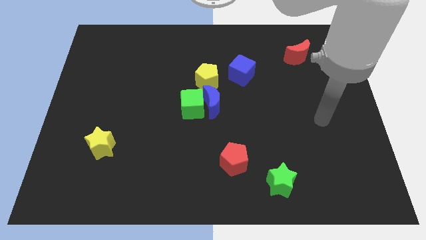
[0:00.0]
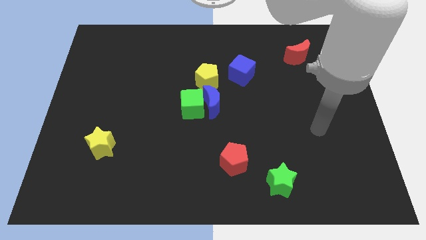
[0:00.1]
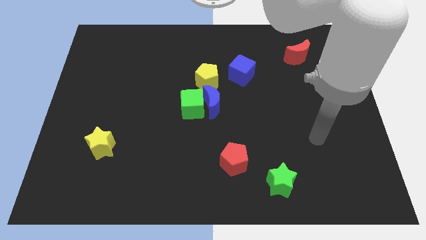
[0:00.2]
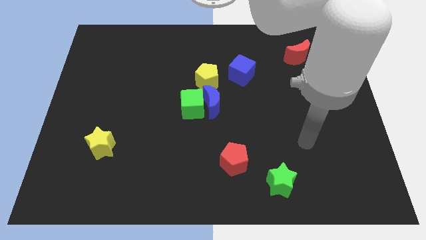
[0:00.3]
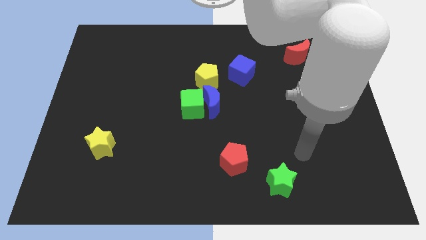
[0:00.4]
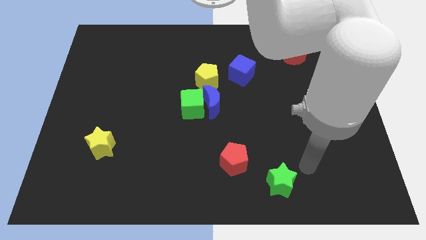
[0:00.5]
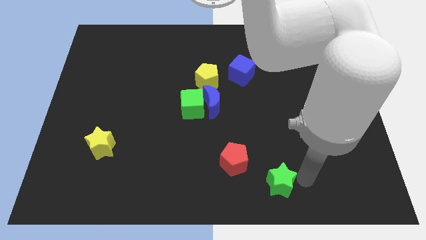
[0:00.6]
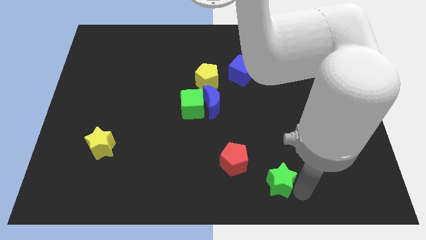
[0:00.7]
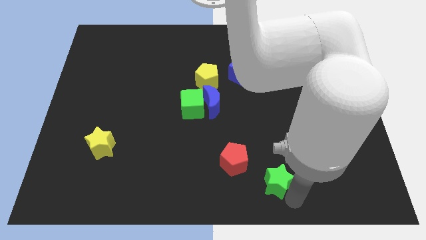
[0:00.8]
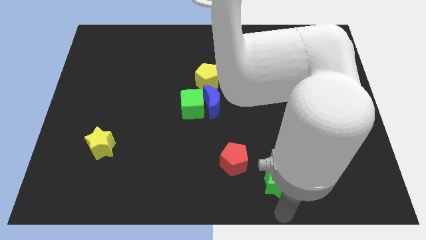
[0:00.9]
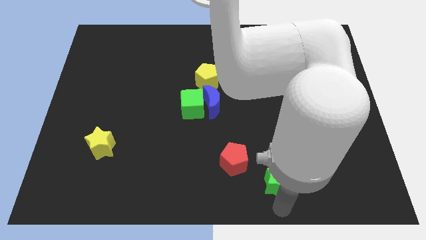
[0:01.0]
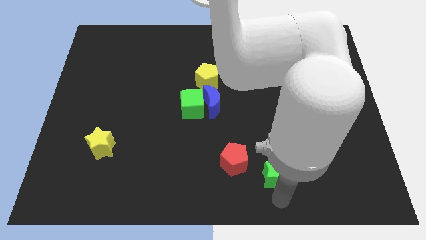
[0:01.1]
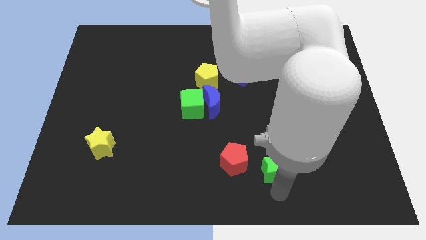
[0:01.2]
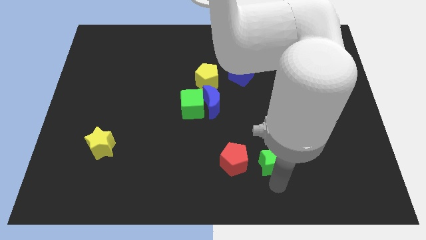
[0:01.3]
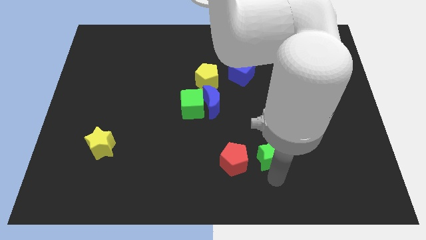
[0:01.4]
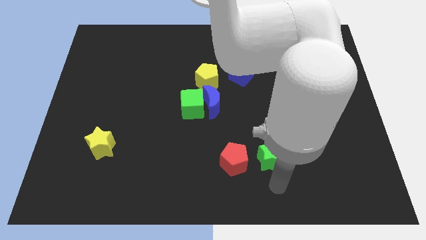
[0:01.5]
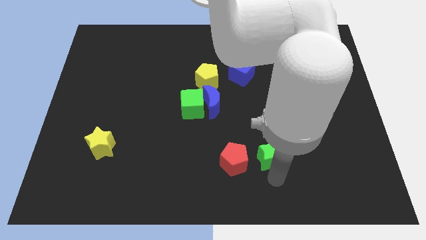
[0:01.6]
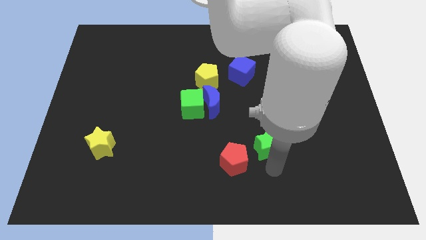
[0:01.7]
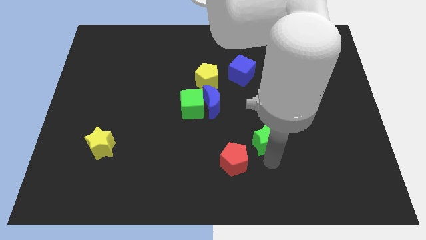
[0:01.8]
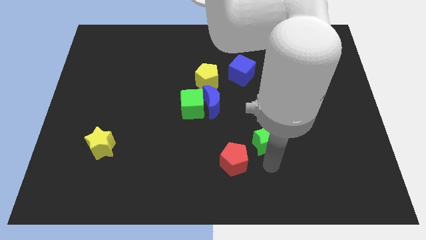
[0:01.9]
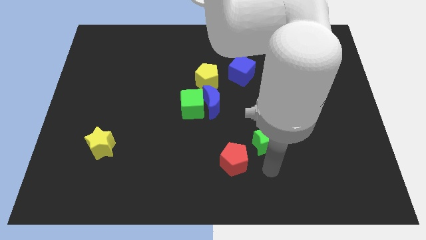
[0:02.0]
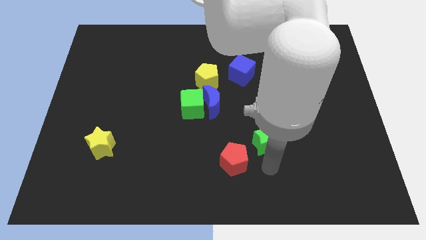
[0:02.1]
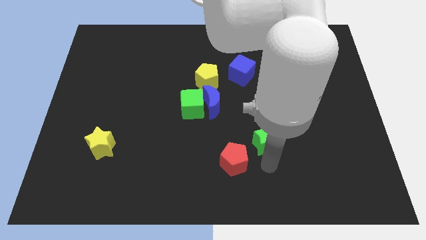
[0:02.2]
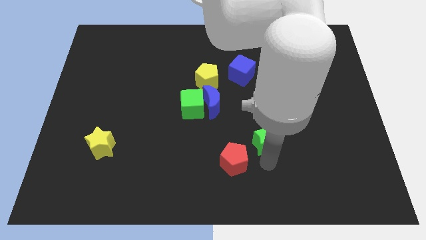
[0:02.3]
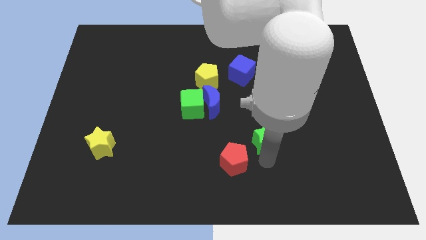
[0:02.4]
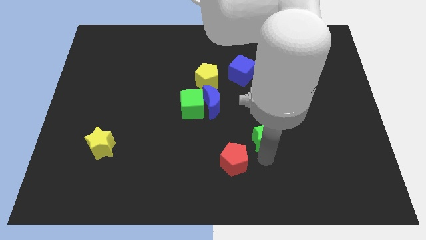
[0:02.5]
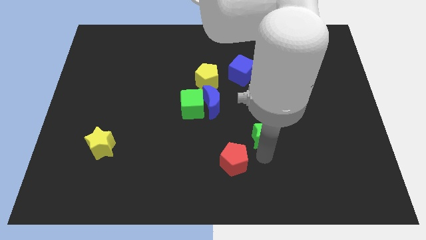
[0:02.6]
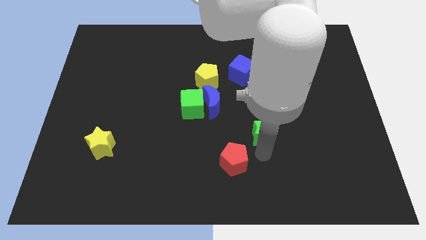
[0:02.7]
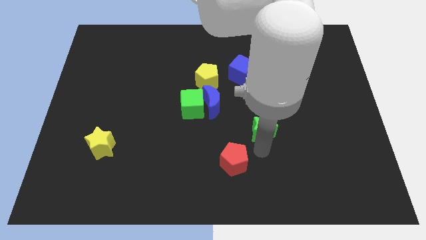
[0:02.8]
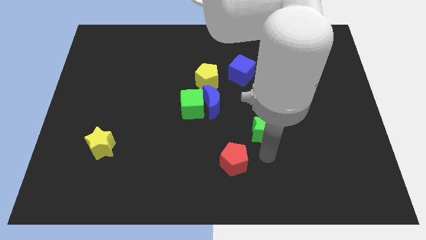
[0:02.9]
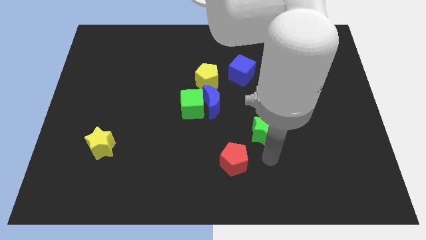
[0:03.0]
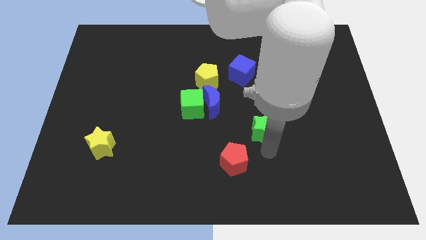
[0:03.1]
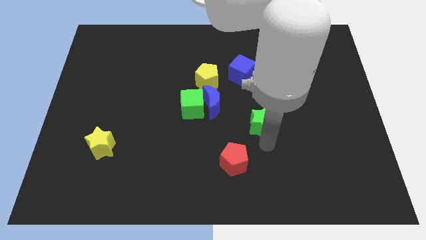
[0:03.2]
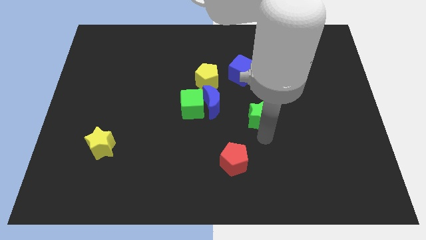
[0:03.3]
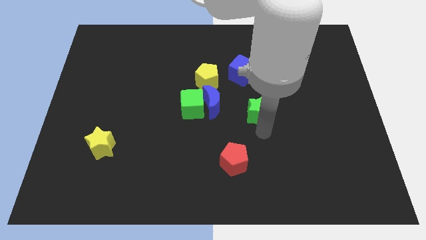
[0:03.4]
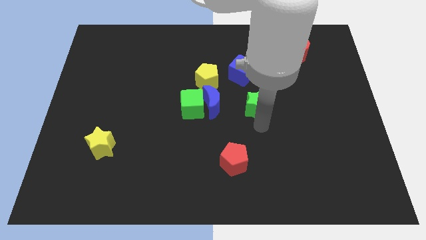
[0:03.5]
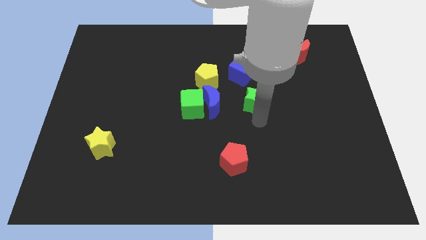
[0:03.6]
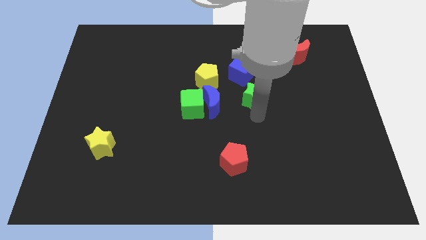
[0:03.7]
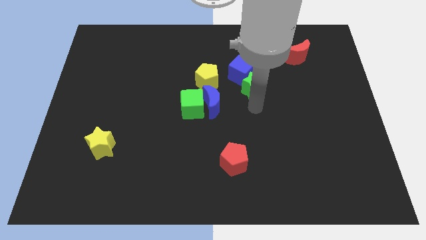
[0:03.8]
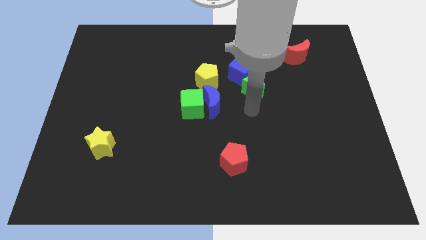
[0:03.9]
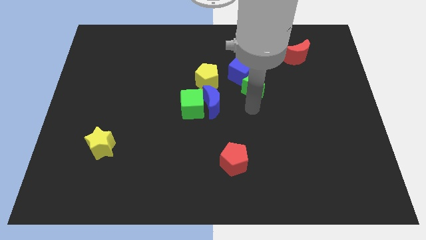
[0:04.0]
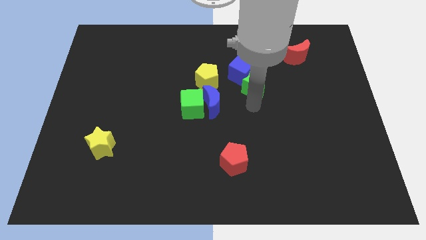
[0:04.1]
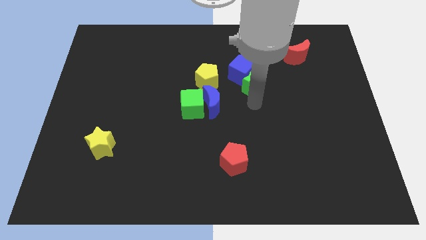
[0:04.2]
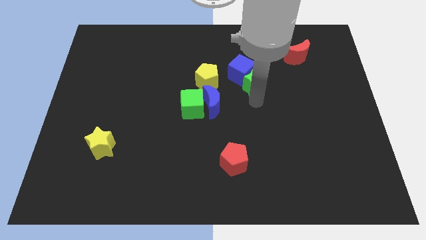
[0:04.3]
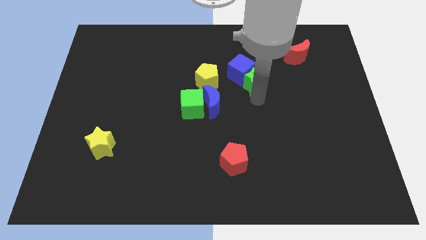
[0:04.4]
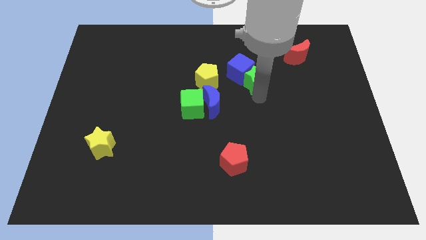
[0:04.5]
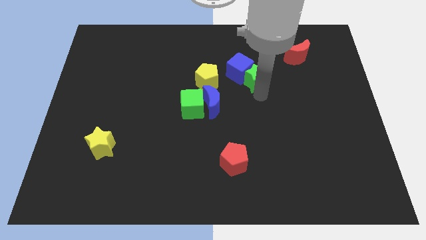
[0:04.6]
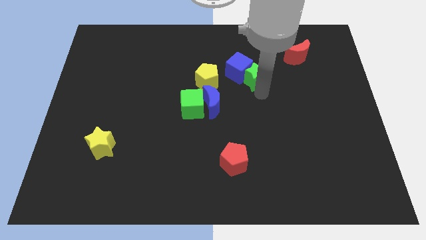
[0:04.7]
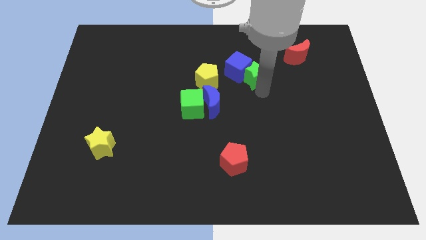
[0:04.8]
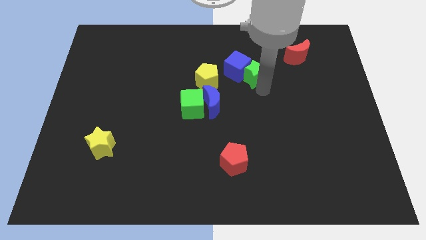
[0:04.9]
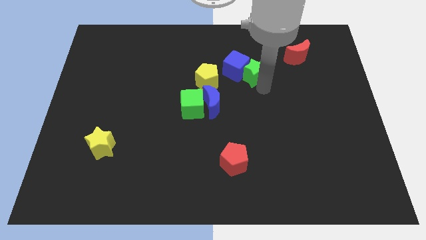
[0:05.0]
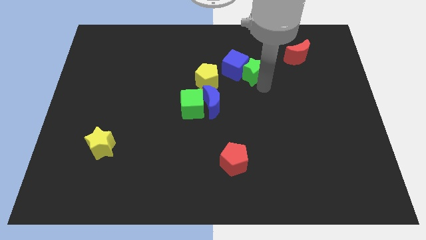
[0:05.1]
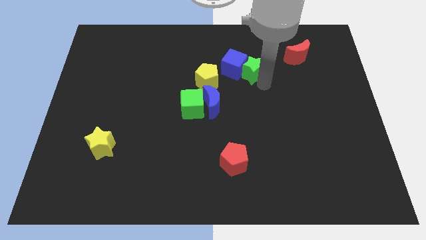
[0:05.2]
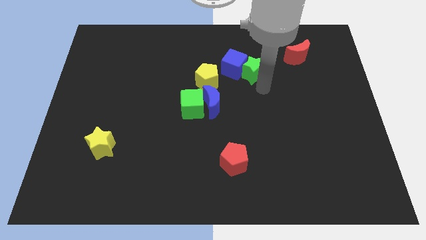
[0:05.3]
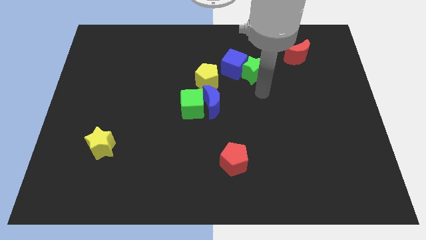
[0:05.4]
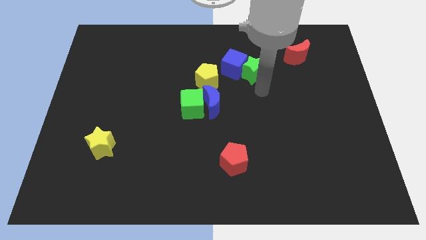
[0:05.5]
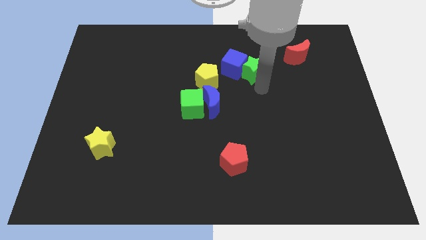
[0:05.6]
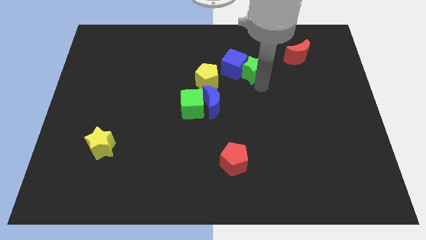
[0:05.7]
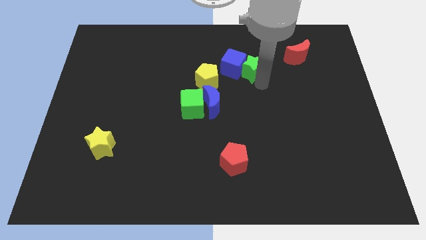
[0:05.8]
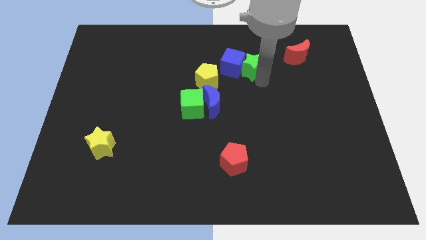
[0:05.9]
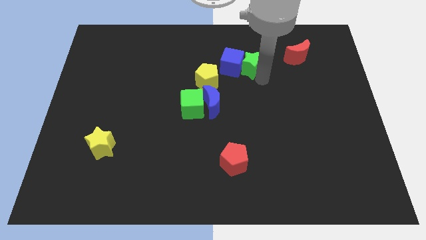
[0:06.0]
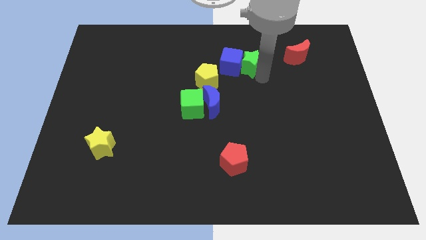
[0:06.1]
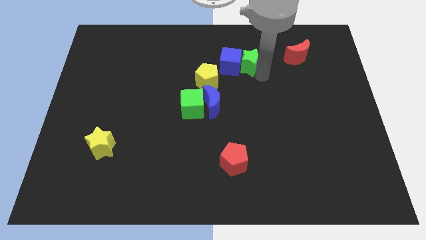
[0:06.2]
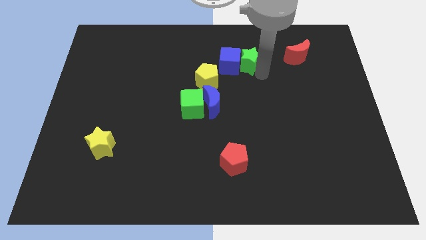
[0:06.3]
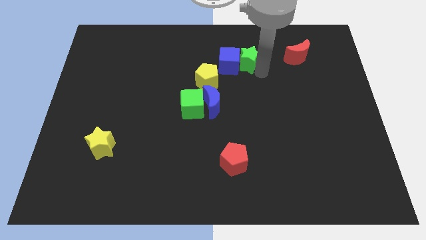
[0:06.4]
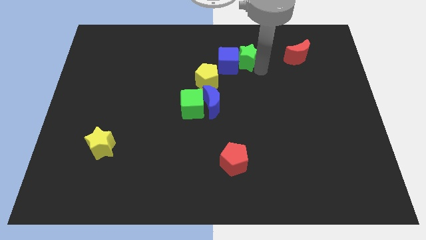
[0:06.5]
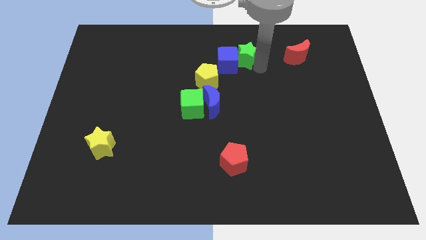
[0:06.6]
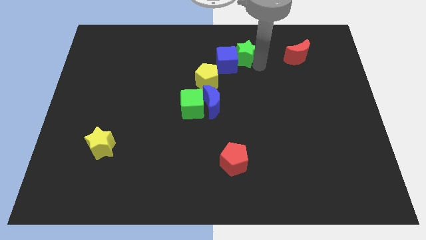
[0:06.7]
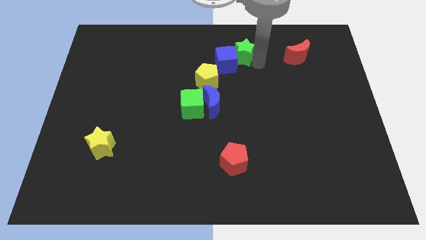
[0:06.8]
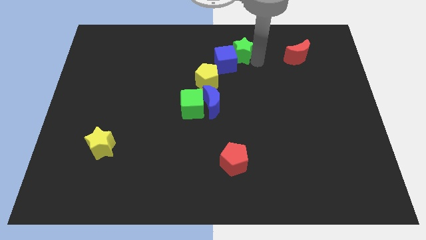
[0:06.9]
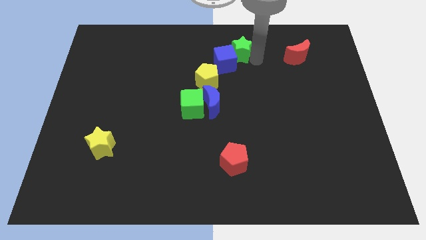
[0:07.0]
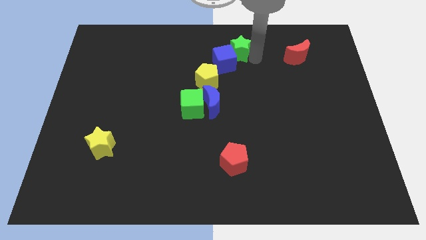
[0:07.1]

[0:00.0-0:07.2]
slide the green star to the top

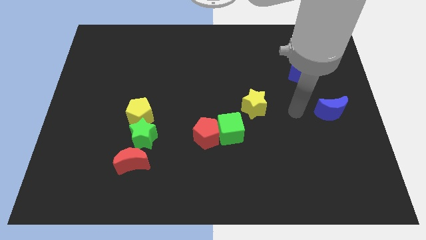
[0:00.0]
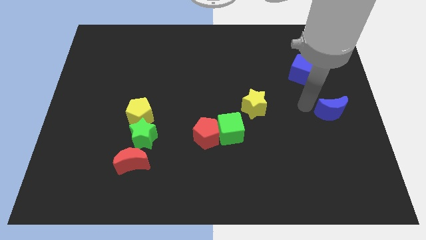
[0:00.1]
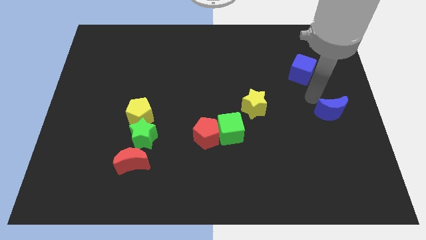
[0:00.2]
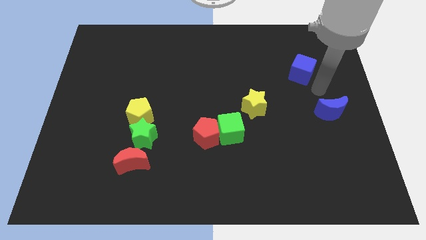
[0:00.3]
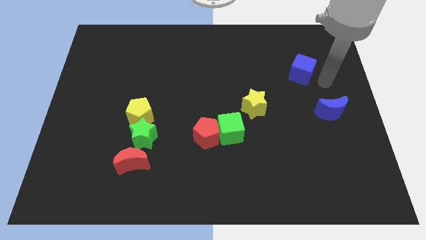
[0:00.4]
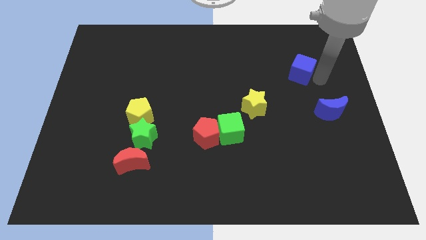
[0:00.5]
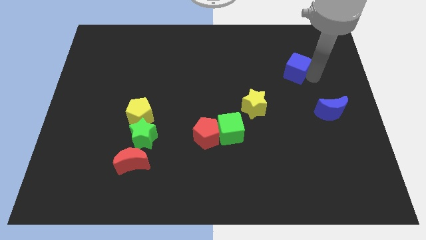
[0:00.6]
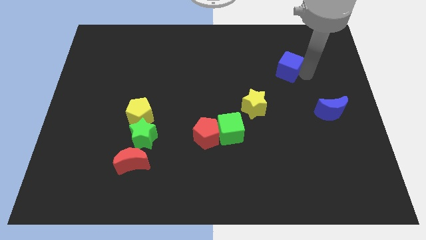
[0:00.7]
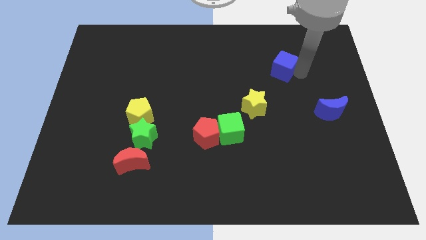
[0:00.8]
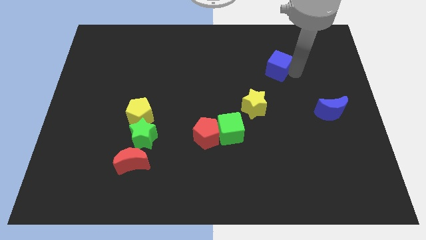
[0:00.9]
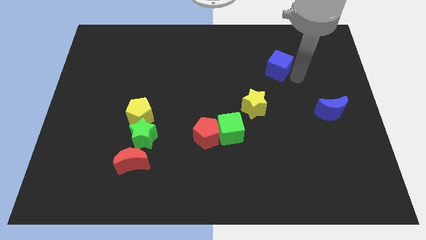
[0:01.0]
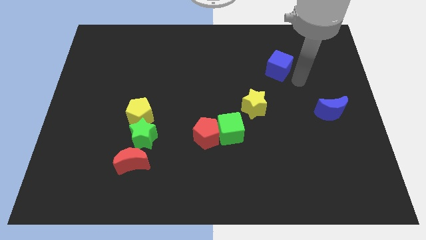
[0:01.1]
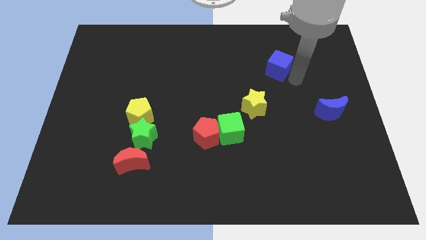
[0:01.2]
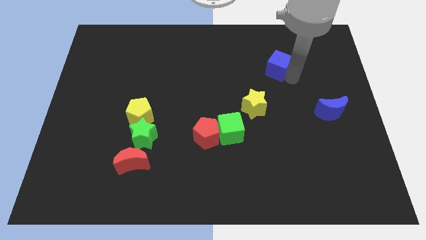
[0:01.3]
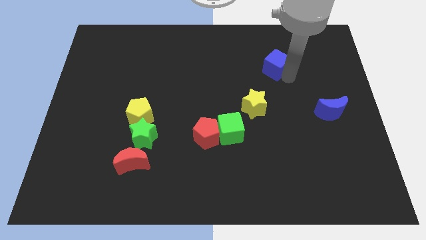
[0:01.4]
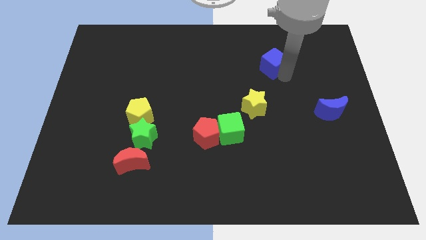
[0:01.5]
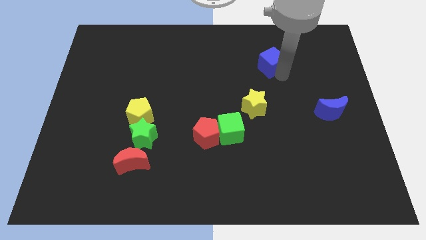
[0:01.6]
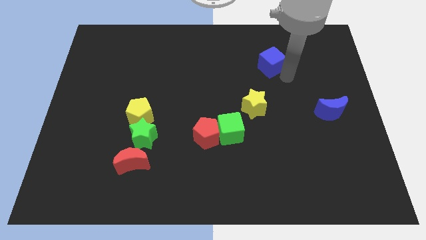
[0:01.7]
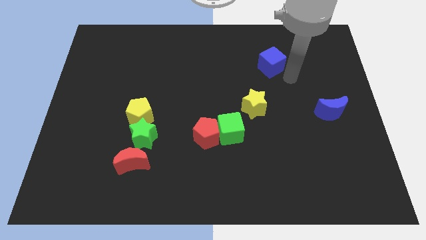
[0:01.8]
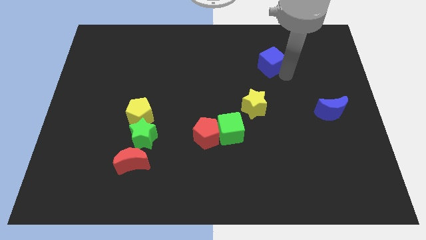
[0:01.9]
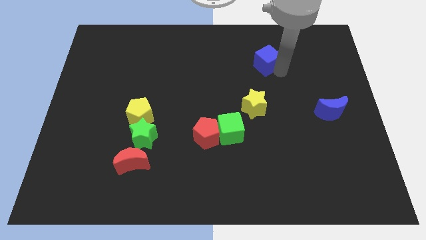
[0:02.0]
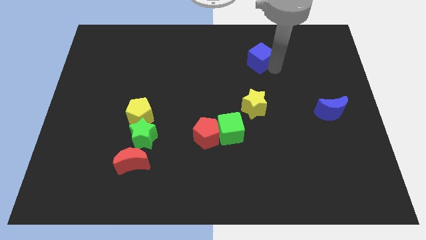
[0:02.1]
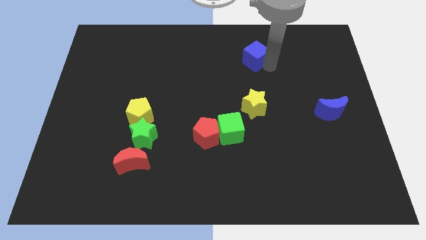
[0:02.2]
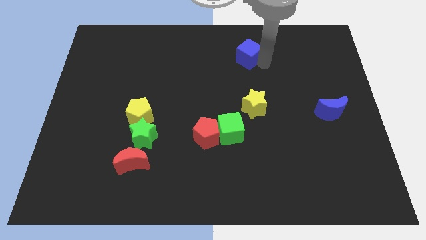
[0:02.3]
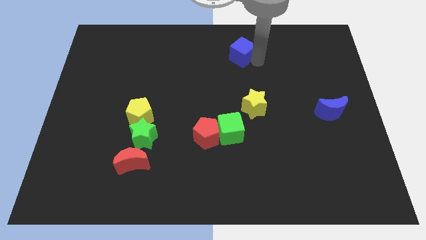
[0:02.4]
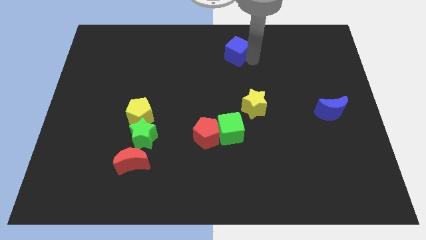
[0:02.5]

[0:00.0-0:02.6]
push the blue cube to the top
